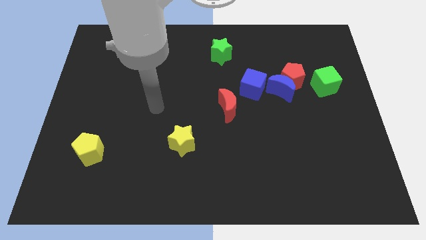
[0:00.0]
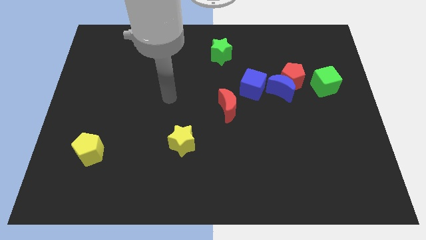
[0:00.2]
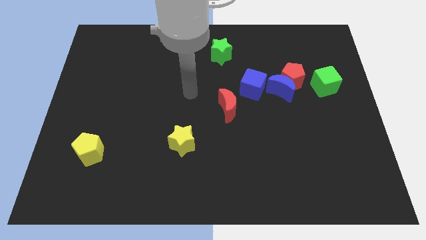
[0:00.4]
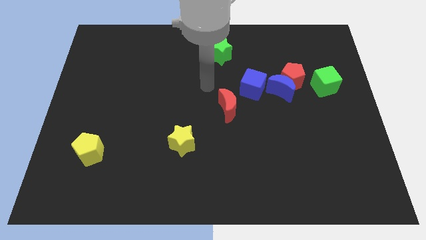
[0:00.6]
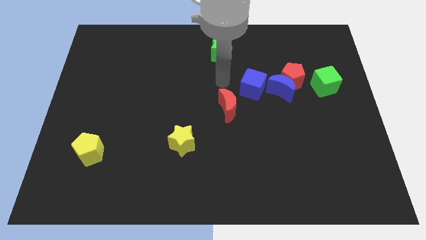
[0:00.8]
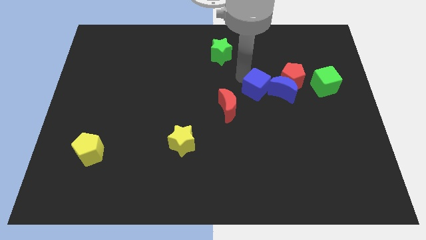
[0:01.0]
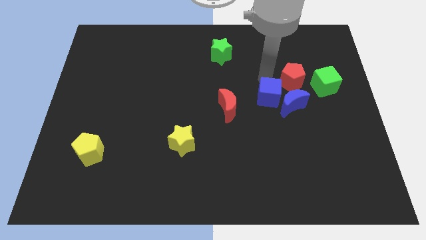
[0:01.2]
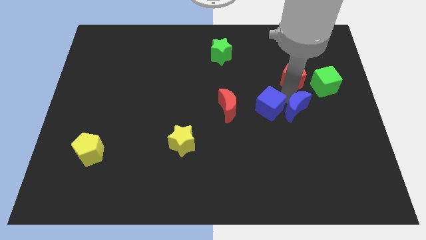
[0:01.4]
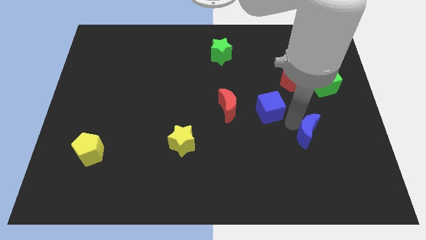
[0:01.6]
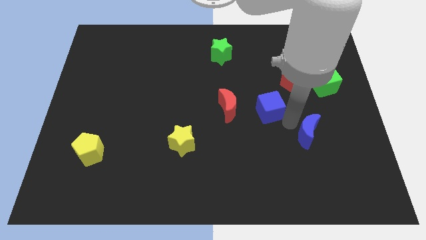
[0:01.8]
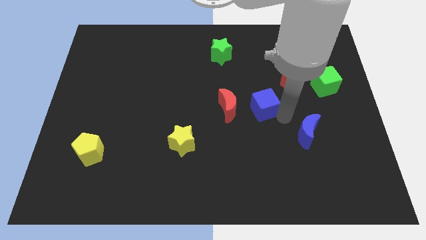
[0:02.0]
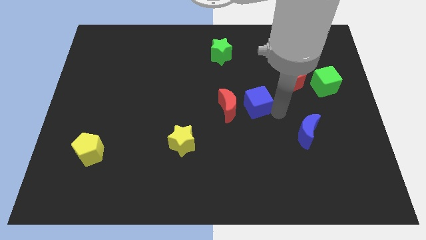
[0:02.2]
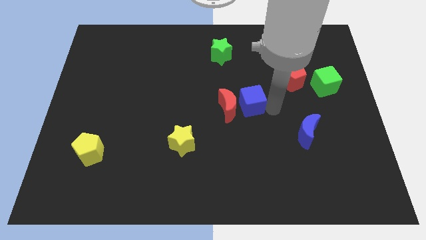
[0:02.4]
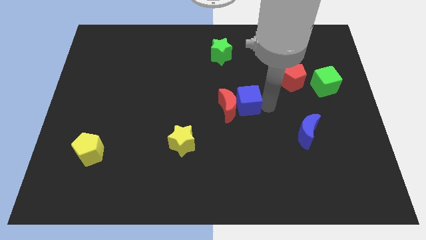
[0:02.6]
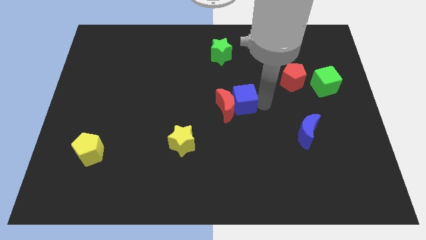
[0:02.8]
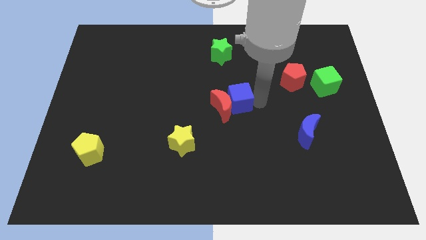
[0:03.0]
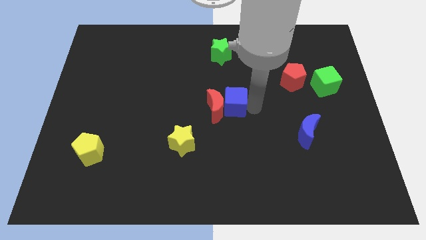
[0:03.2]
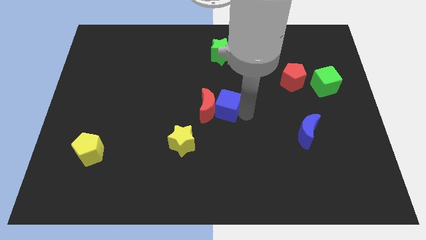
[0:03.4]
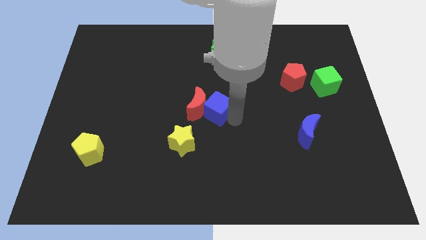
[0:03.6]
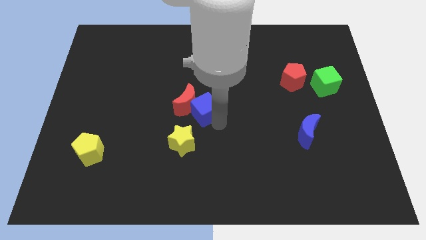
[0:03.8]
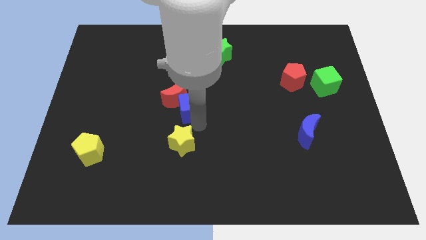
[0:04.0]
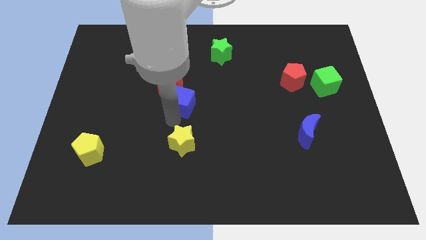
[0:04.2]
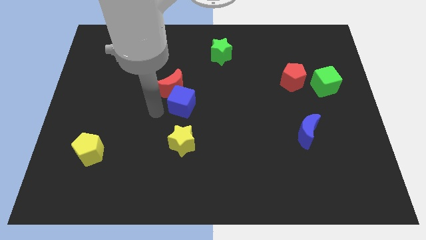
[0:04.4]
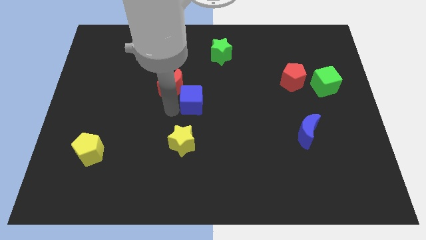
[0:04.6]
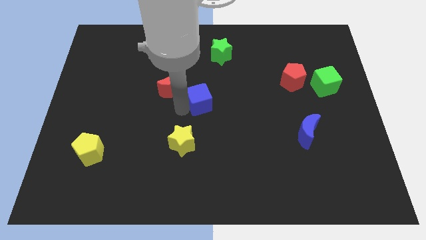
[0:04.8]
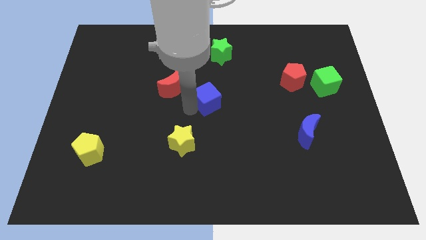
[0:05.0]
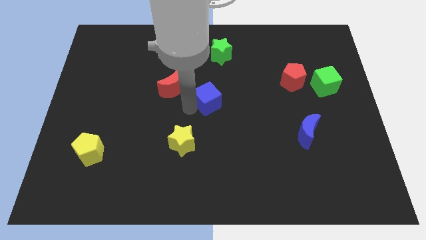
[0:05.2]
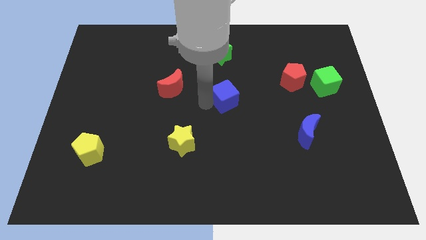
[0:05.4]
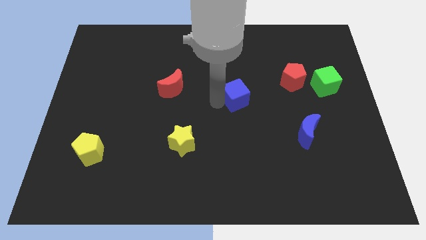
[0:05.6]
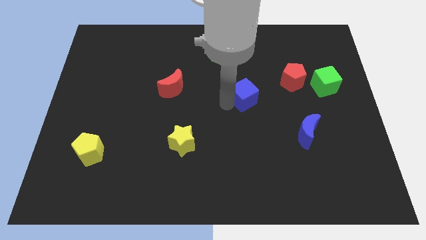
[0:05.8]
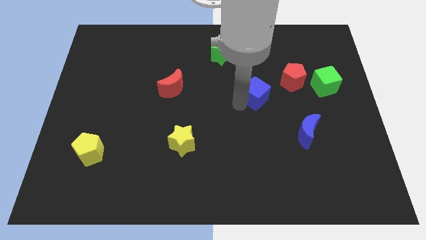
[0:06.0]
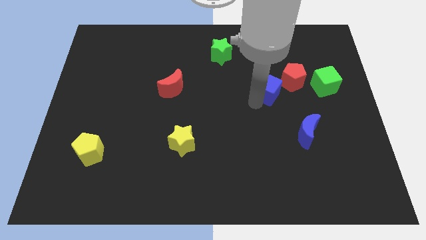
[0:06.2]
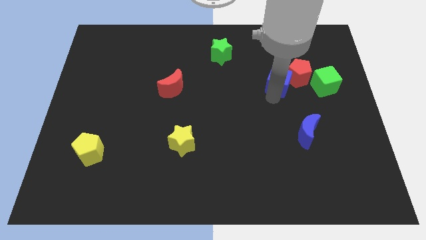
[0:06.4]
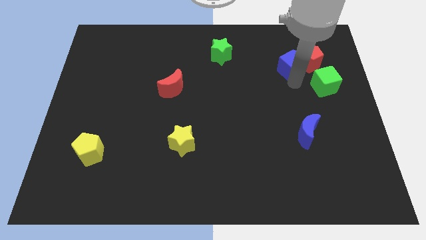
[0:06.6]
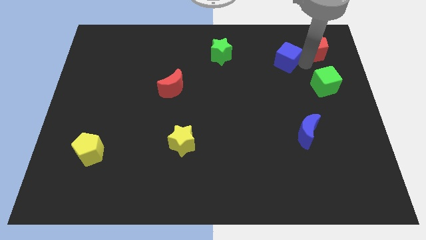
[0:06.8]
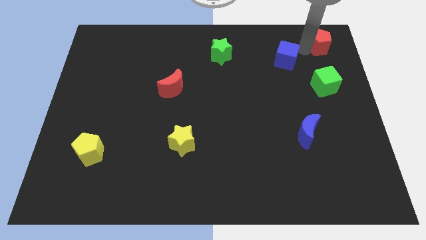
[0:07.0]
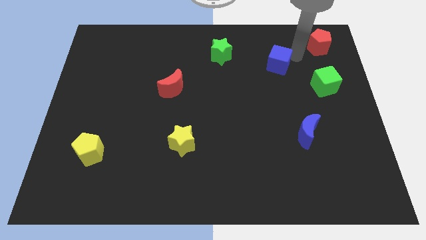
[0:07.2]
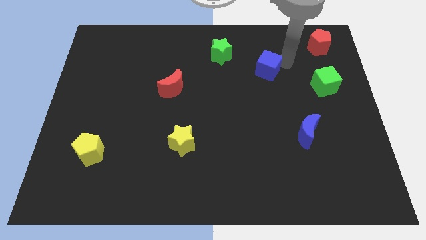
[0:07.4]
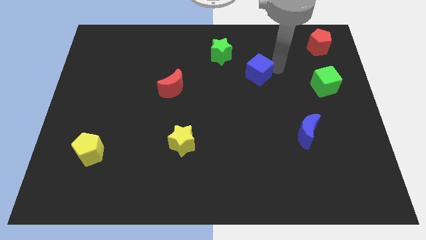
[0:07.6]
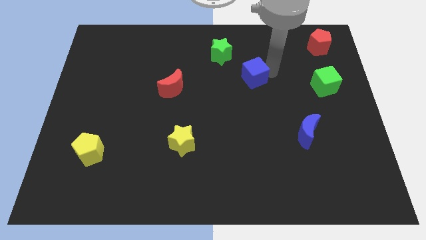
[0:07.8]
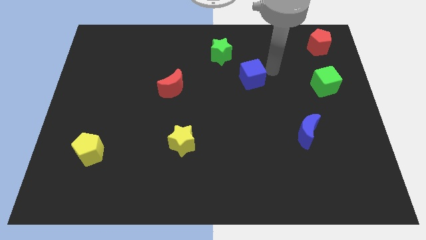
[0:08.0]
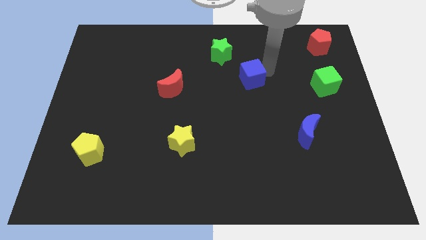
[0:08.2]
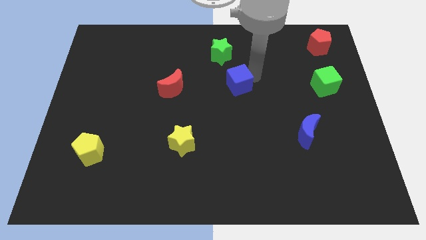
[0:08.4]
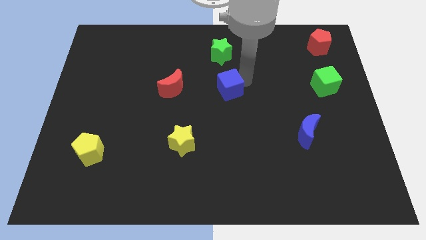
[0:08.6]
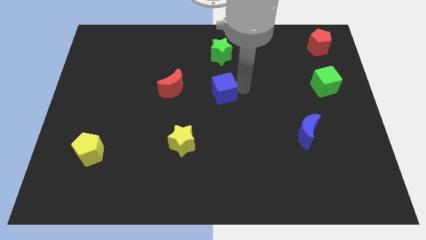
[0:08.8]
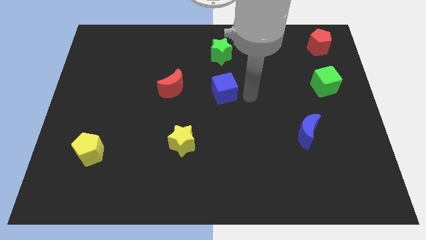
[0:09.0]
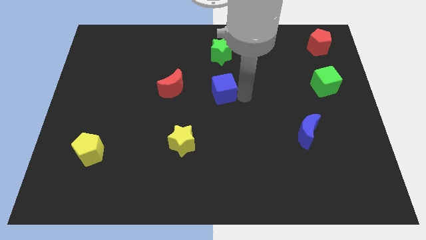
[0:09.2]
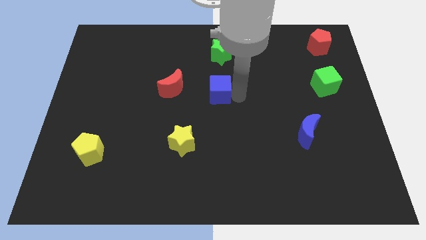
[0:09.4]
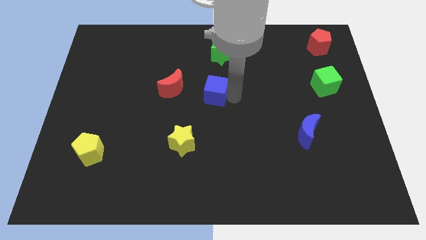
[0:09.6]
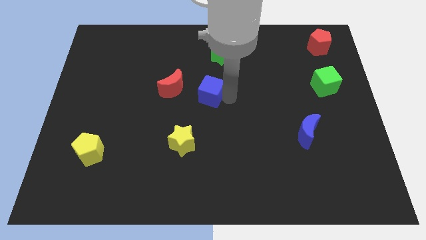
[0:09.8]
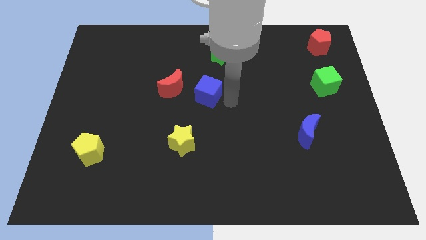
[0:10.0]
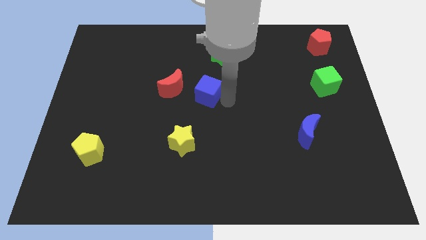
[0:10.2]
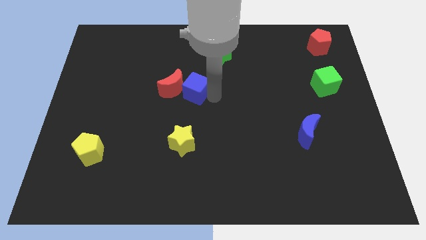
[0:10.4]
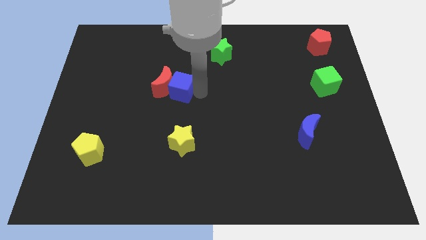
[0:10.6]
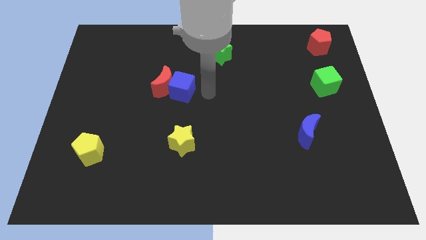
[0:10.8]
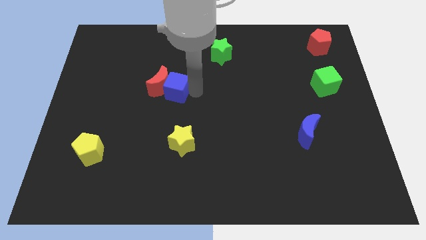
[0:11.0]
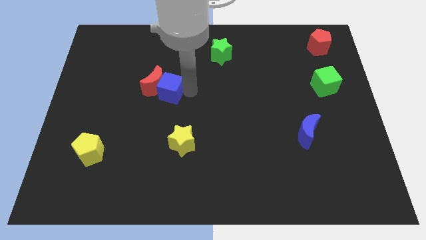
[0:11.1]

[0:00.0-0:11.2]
move the blue cube left

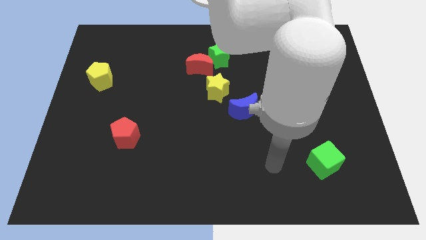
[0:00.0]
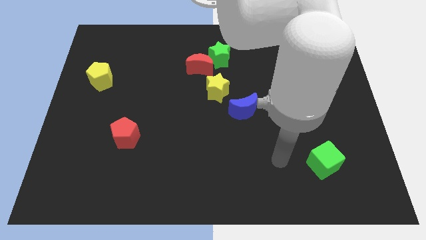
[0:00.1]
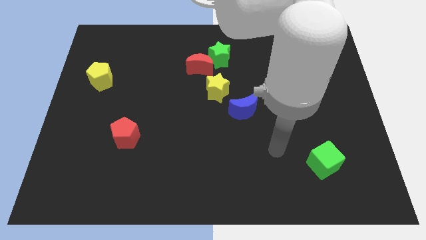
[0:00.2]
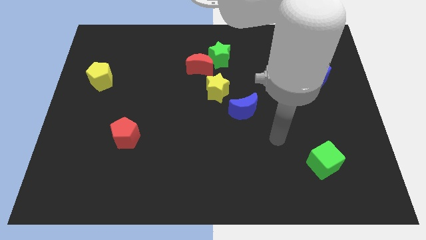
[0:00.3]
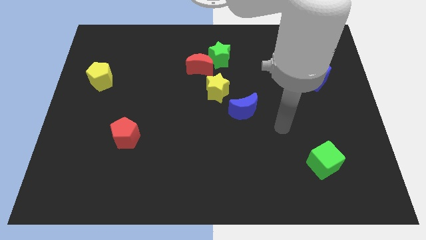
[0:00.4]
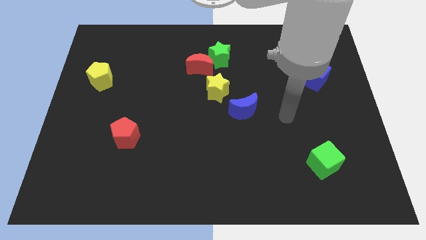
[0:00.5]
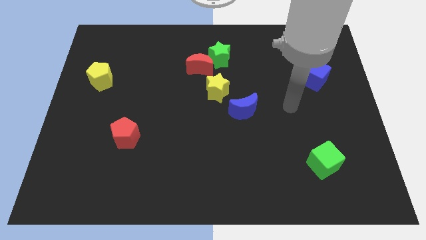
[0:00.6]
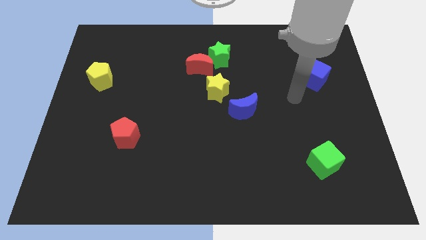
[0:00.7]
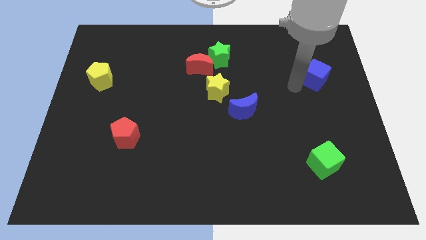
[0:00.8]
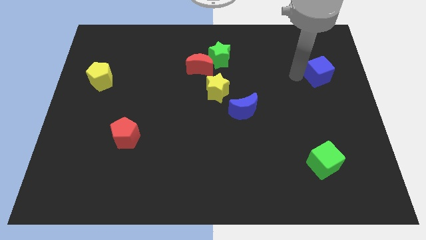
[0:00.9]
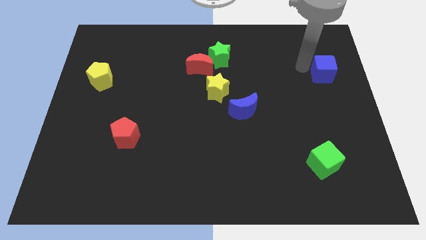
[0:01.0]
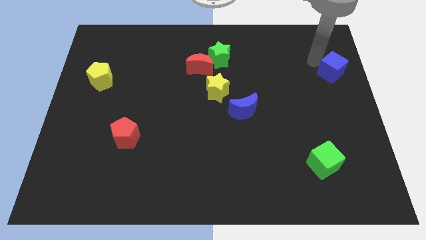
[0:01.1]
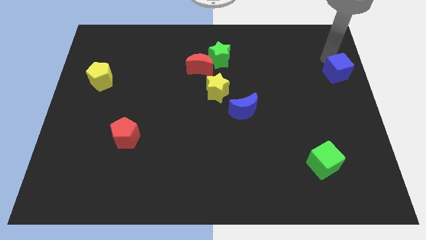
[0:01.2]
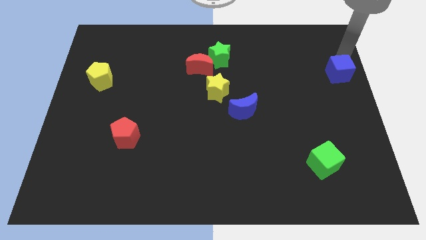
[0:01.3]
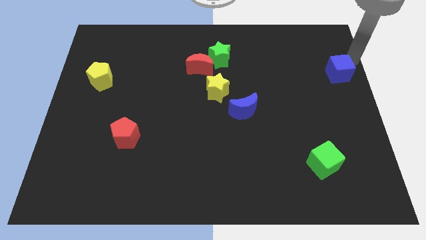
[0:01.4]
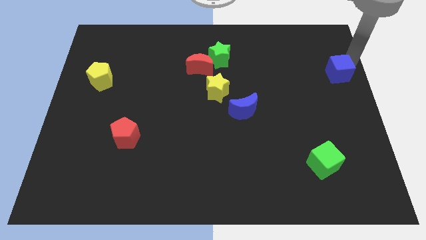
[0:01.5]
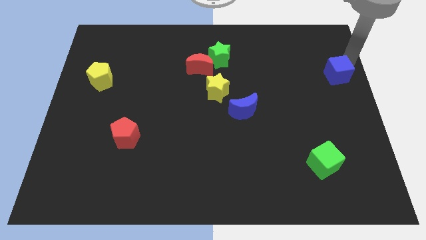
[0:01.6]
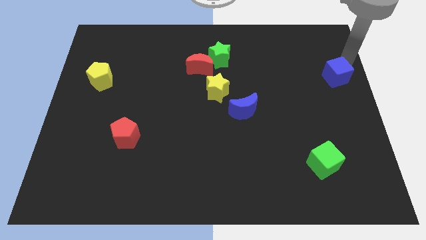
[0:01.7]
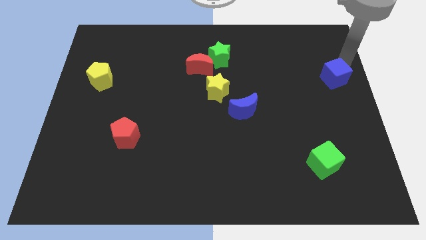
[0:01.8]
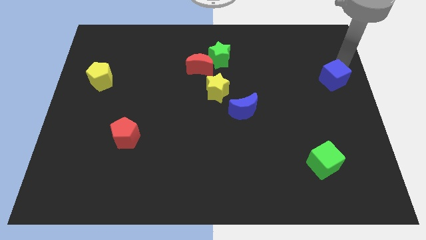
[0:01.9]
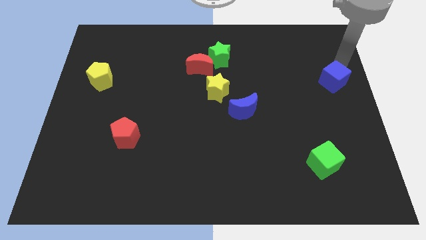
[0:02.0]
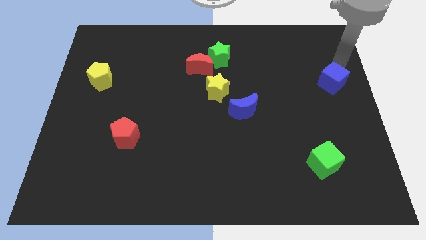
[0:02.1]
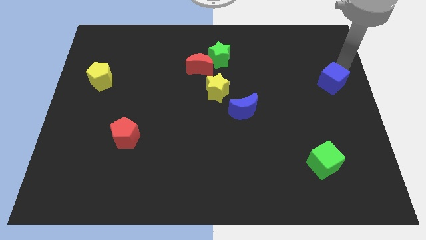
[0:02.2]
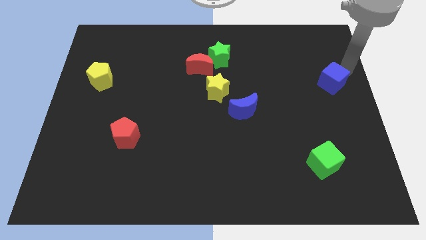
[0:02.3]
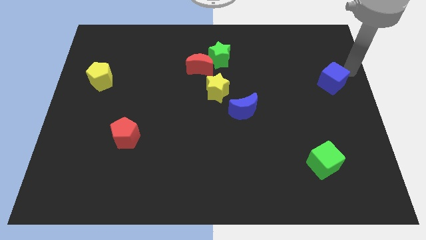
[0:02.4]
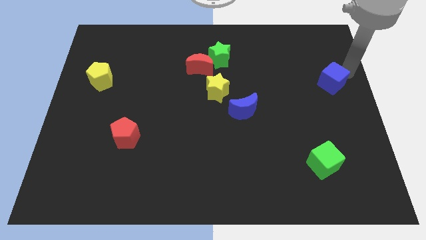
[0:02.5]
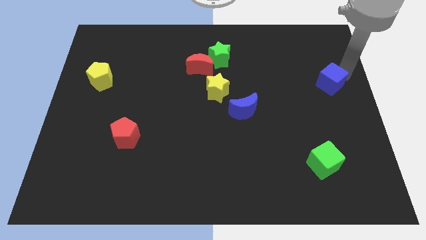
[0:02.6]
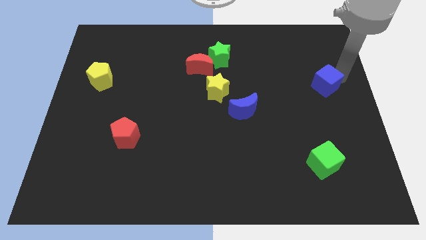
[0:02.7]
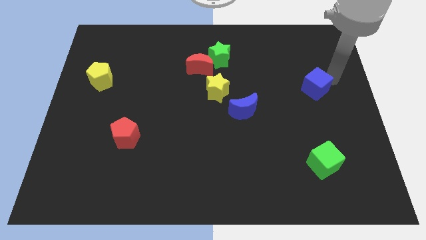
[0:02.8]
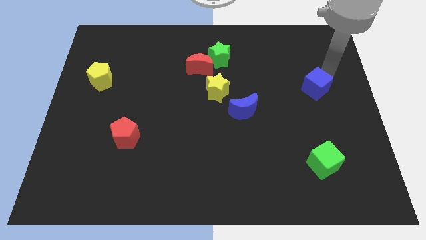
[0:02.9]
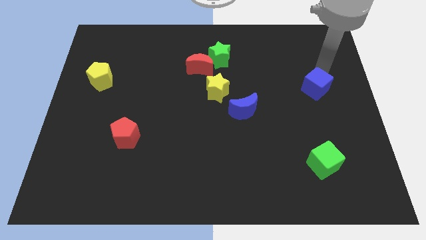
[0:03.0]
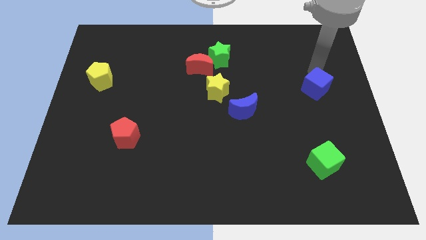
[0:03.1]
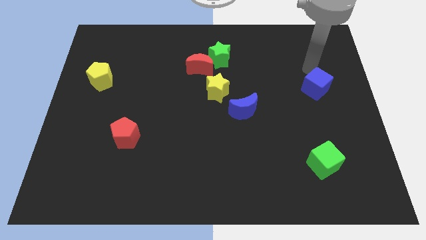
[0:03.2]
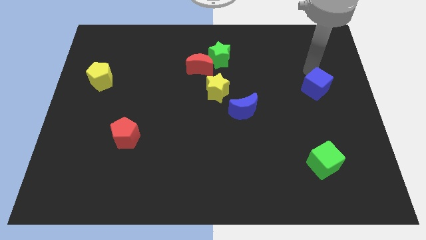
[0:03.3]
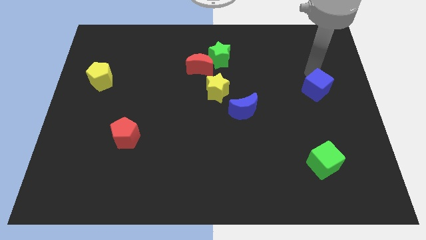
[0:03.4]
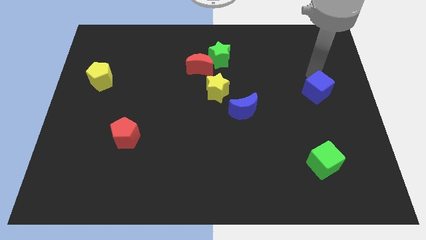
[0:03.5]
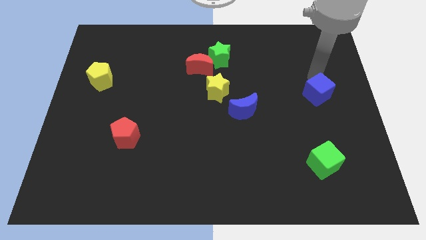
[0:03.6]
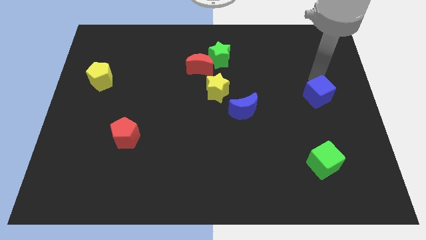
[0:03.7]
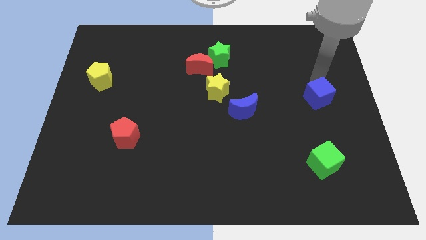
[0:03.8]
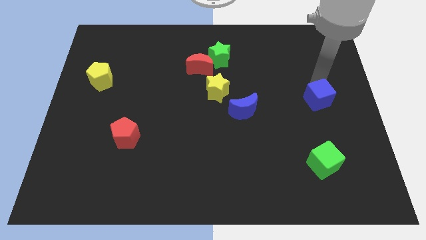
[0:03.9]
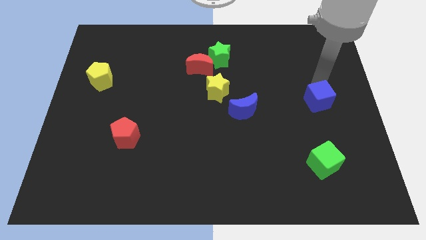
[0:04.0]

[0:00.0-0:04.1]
move the blue cube somewhat down
